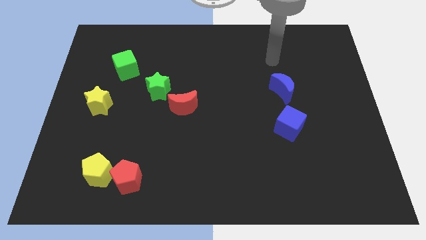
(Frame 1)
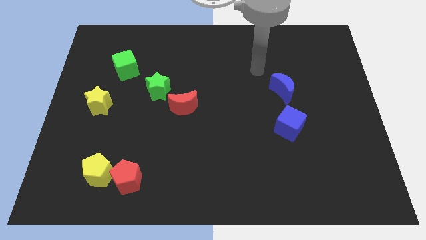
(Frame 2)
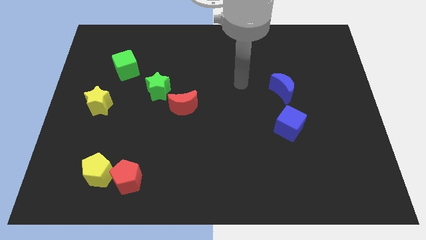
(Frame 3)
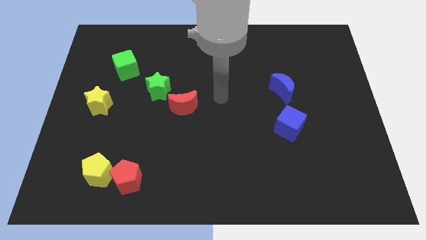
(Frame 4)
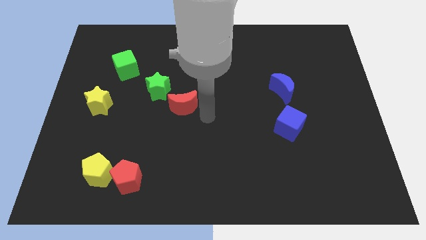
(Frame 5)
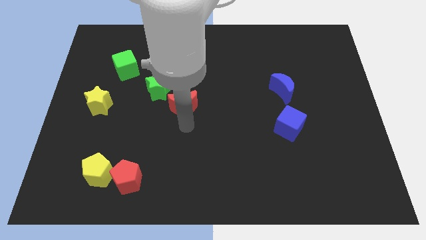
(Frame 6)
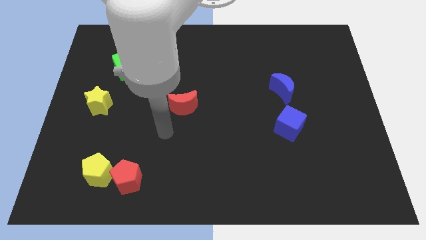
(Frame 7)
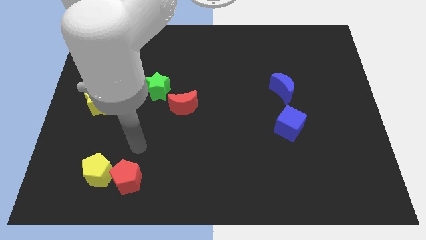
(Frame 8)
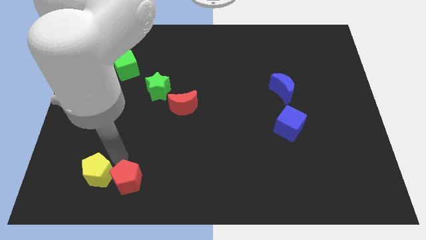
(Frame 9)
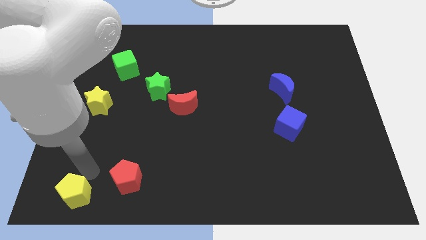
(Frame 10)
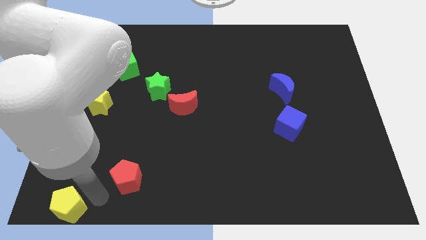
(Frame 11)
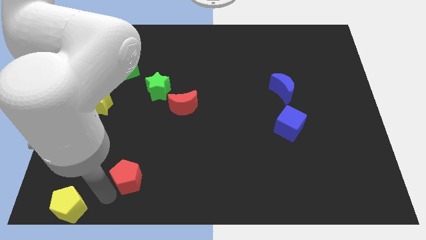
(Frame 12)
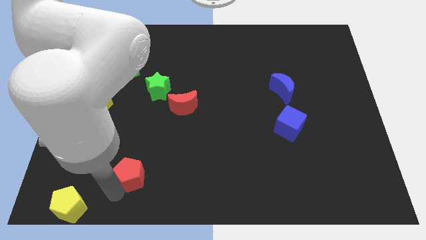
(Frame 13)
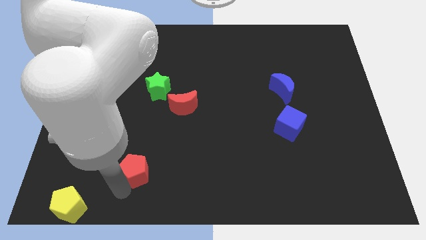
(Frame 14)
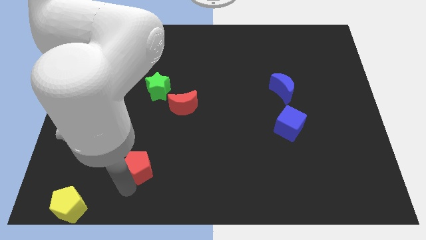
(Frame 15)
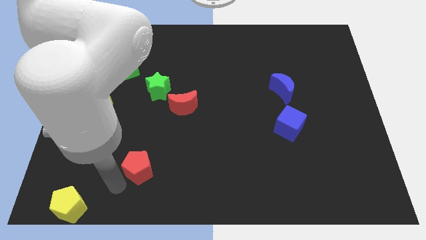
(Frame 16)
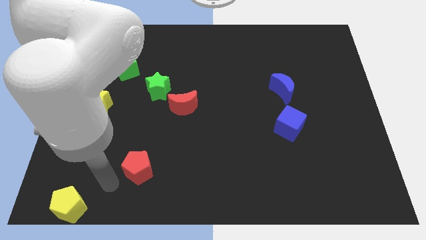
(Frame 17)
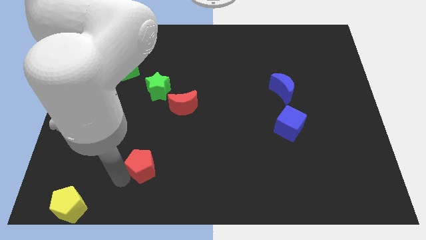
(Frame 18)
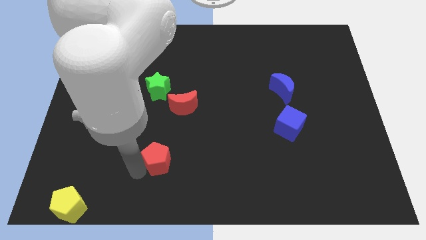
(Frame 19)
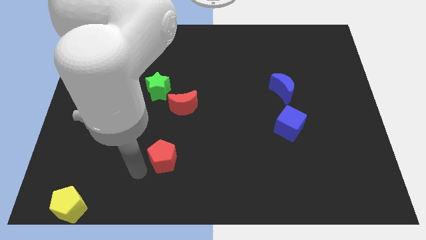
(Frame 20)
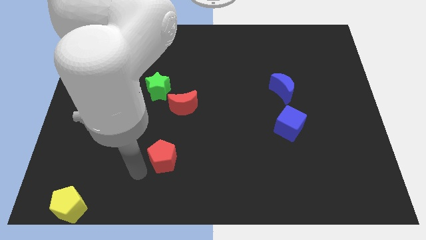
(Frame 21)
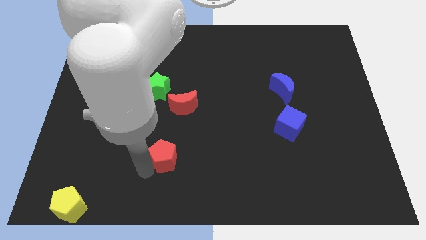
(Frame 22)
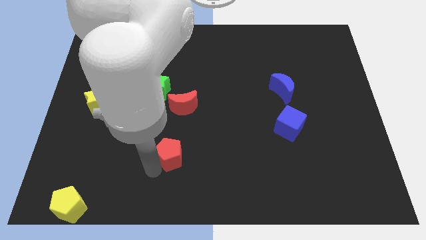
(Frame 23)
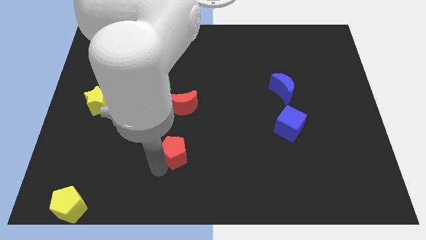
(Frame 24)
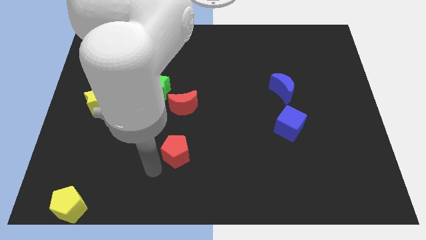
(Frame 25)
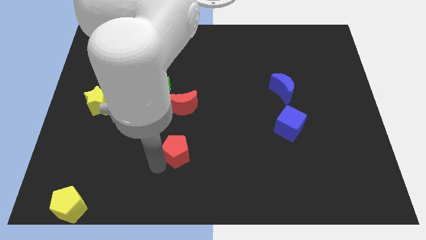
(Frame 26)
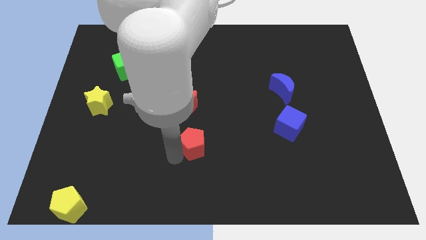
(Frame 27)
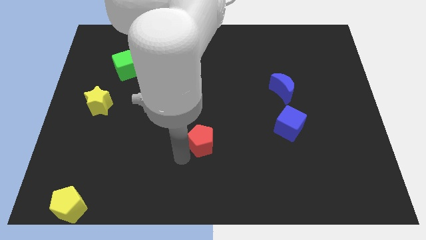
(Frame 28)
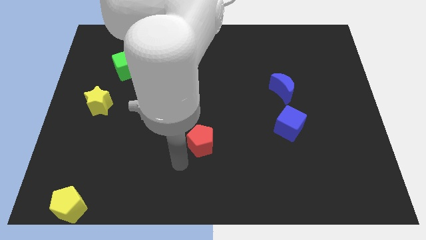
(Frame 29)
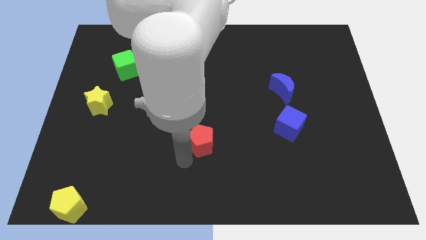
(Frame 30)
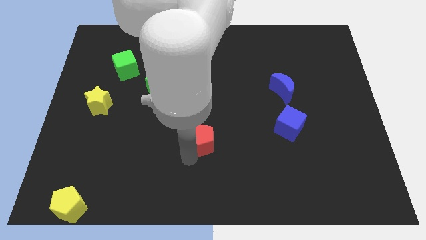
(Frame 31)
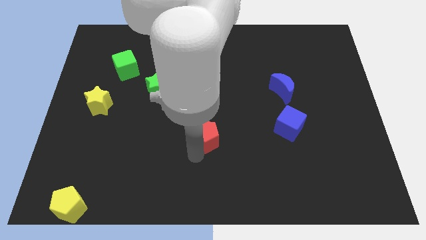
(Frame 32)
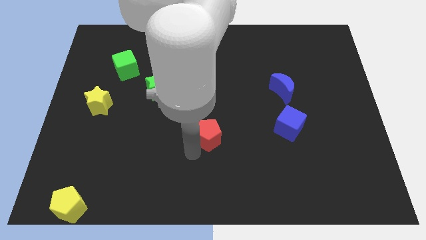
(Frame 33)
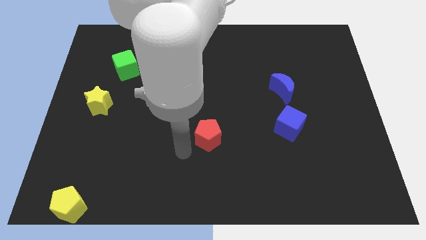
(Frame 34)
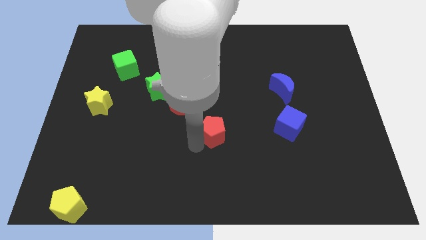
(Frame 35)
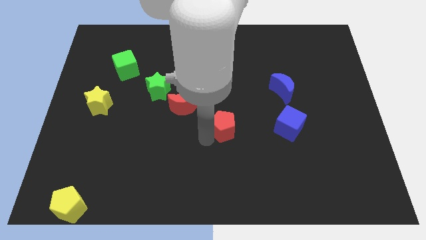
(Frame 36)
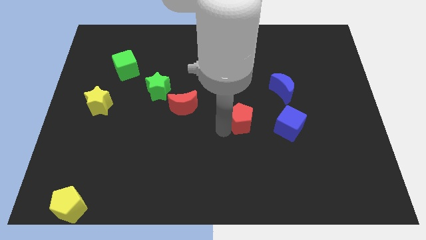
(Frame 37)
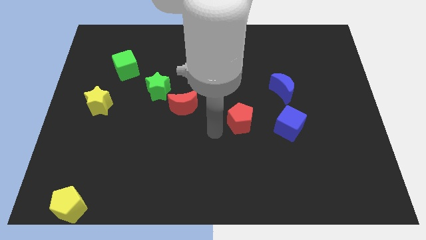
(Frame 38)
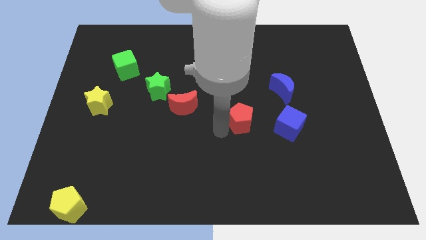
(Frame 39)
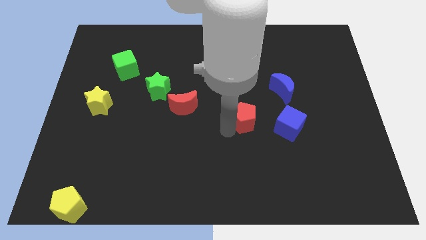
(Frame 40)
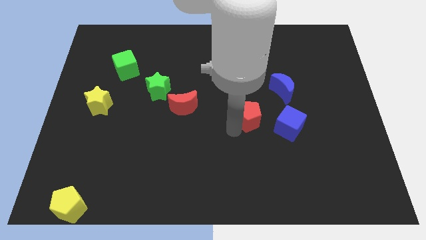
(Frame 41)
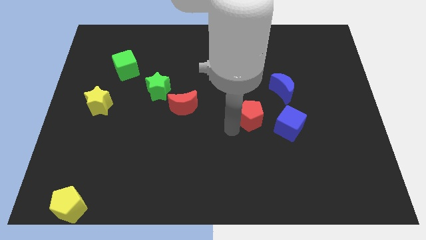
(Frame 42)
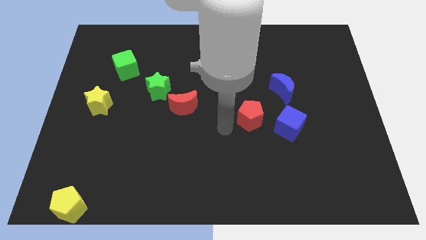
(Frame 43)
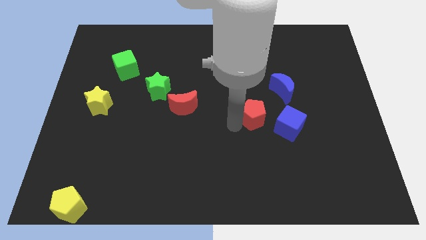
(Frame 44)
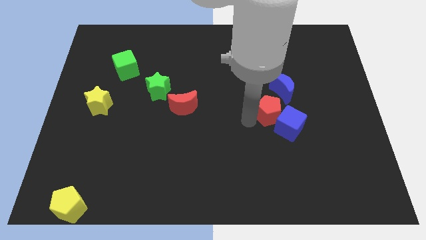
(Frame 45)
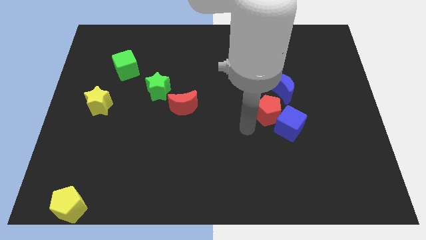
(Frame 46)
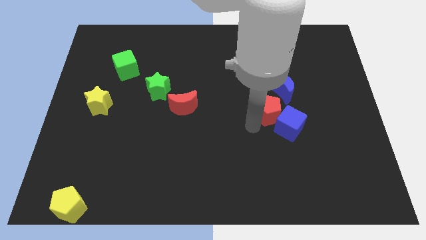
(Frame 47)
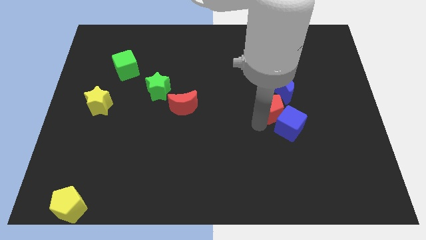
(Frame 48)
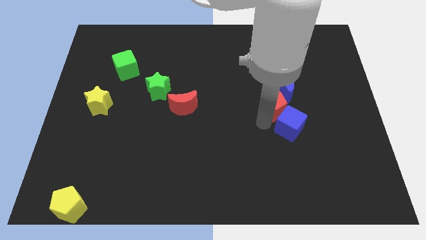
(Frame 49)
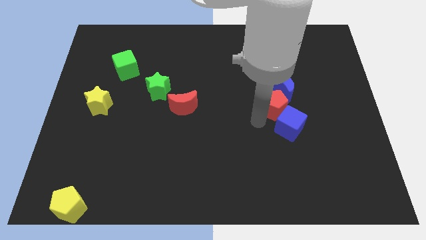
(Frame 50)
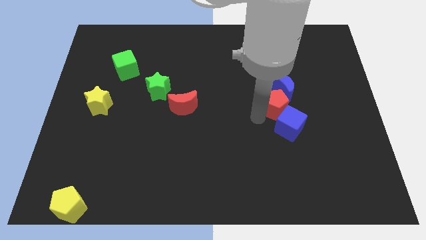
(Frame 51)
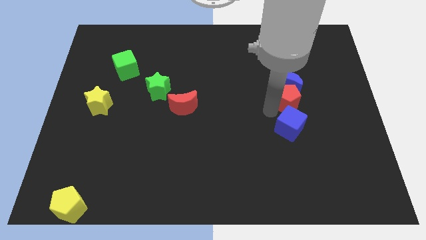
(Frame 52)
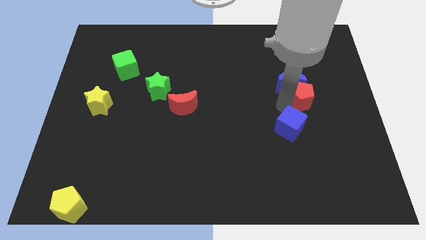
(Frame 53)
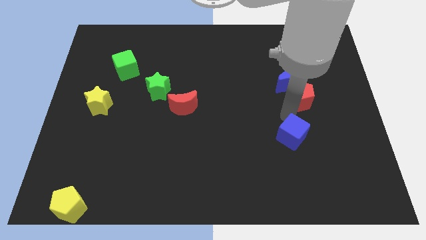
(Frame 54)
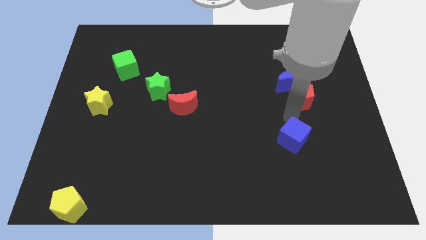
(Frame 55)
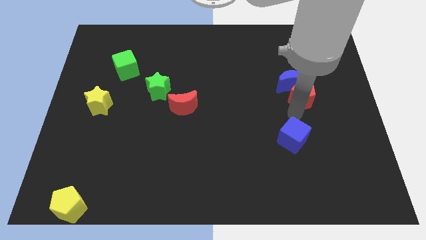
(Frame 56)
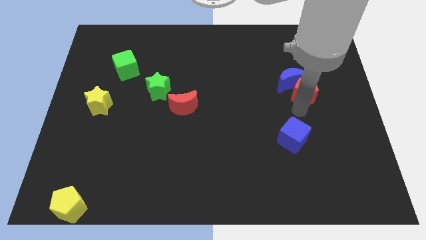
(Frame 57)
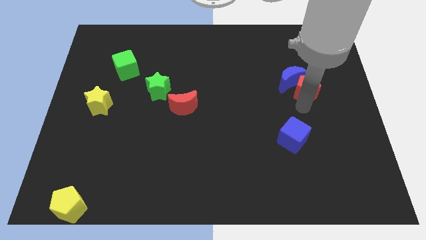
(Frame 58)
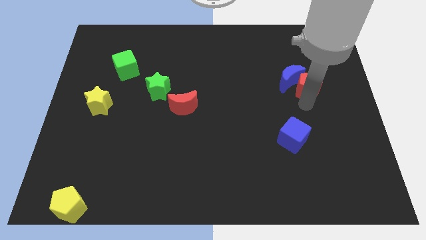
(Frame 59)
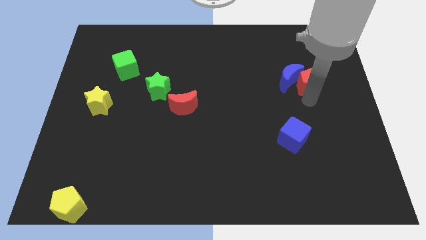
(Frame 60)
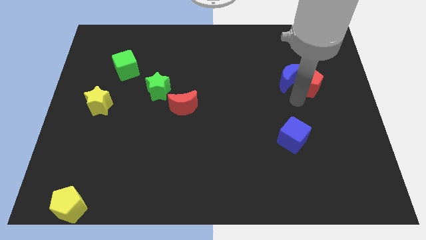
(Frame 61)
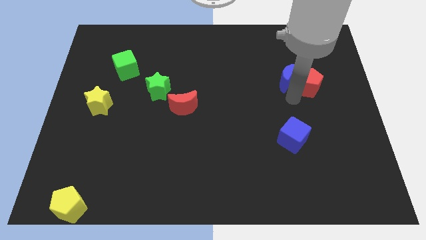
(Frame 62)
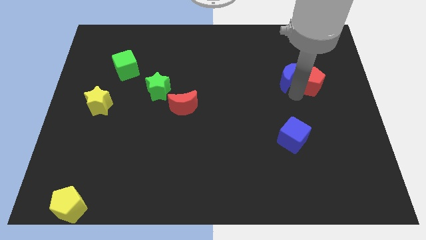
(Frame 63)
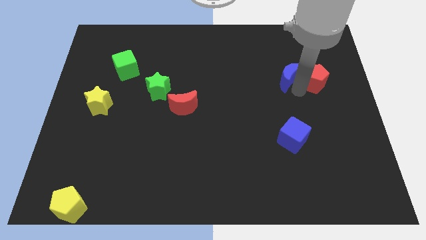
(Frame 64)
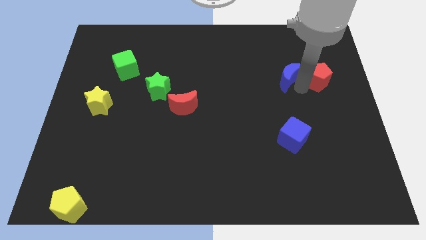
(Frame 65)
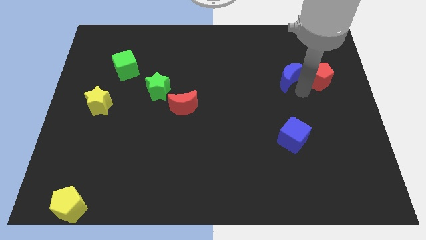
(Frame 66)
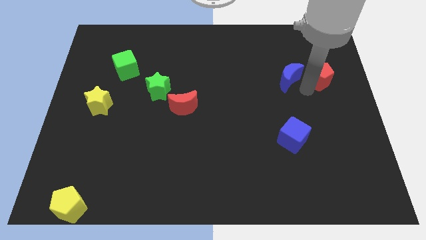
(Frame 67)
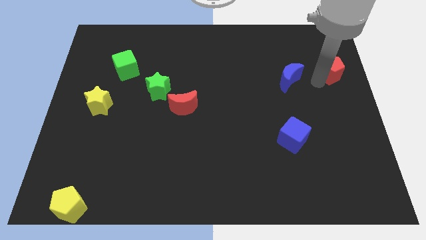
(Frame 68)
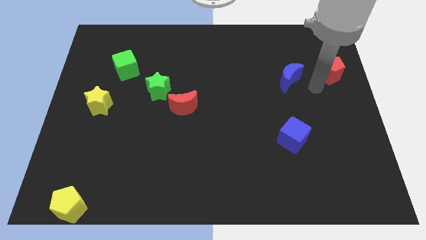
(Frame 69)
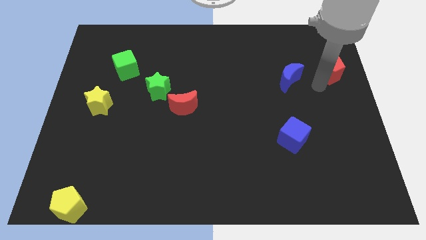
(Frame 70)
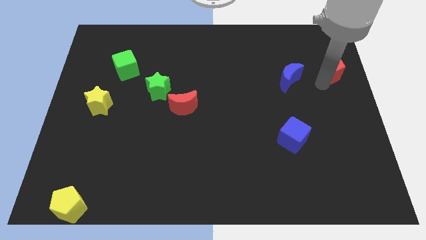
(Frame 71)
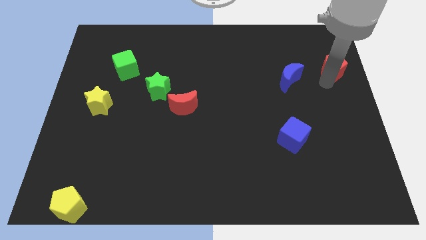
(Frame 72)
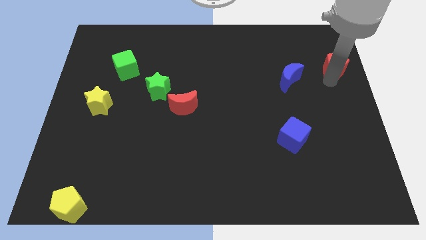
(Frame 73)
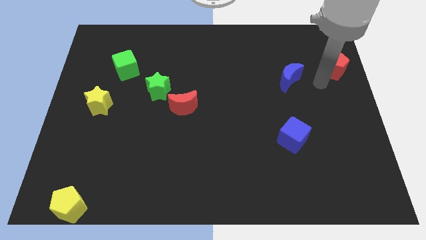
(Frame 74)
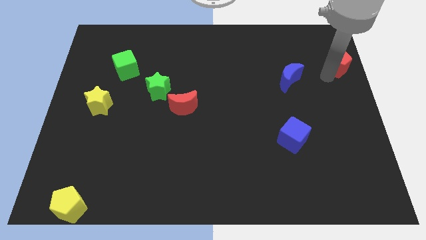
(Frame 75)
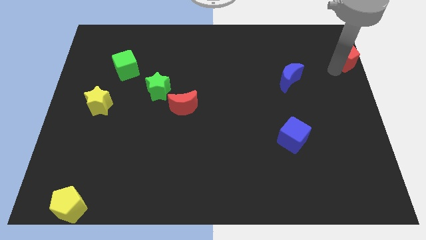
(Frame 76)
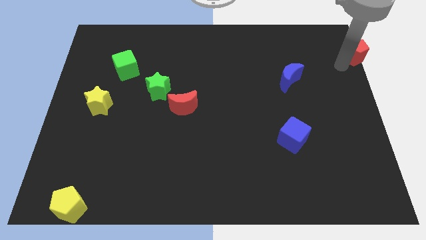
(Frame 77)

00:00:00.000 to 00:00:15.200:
move the red pentagon to the top right corner
